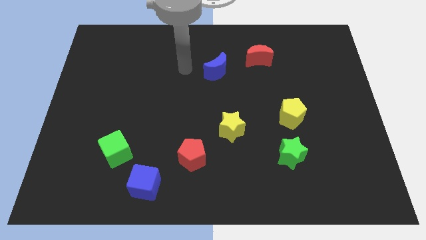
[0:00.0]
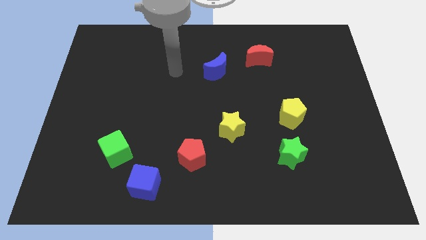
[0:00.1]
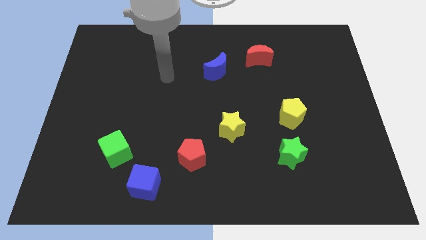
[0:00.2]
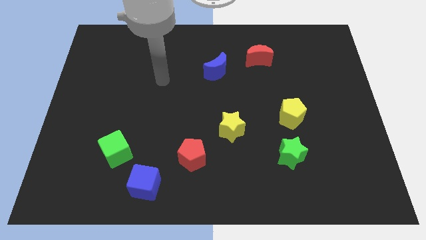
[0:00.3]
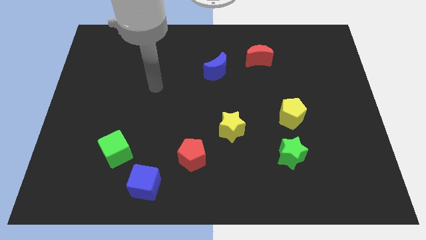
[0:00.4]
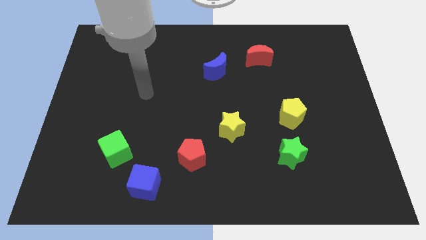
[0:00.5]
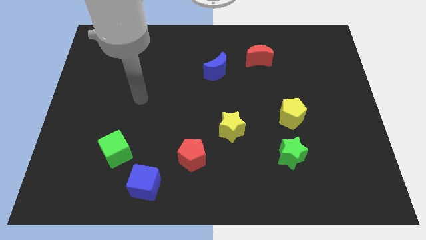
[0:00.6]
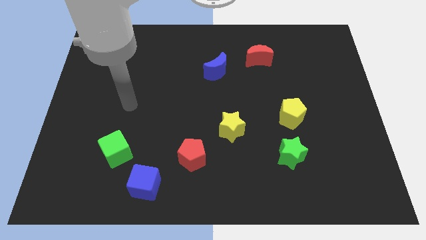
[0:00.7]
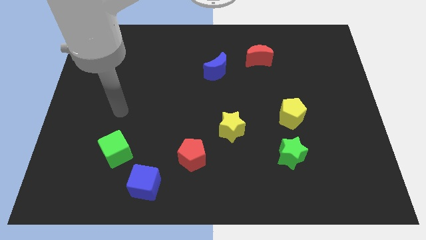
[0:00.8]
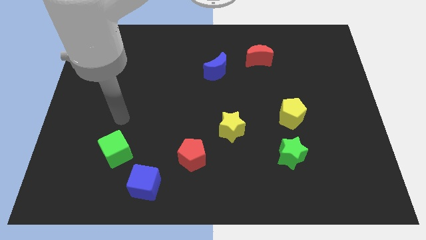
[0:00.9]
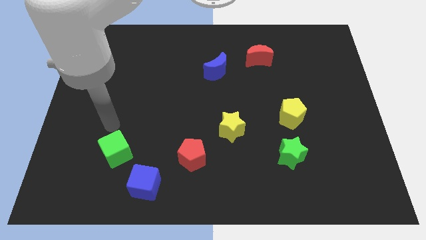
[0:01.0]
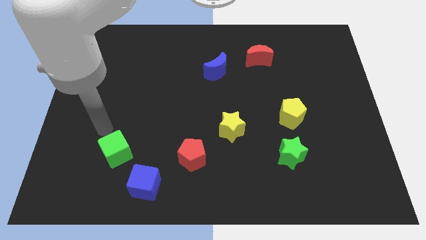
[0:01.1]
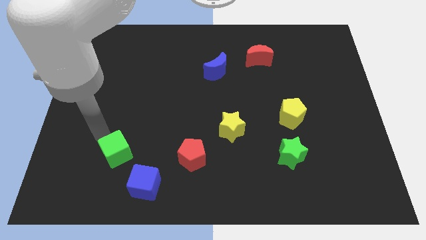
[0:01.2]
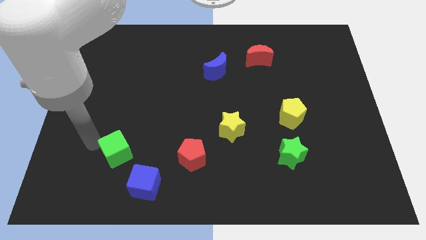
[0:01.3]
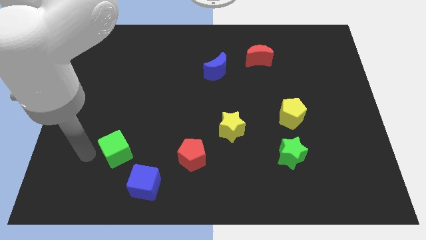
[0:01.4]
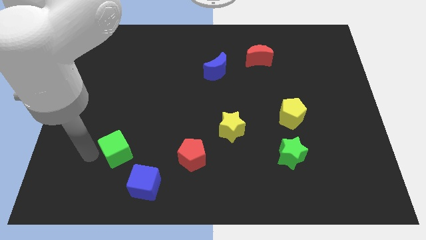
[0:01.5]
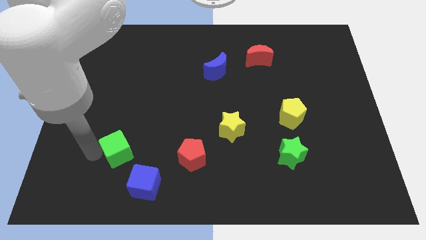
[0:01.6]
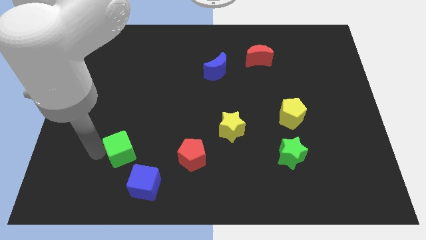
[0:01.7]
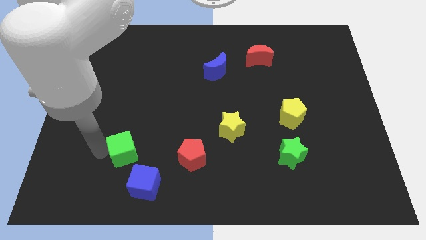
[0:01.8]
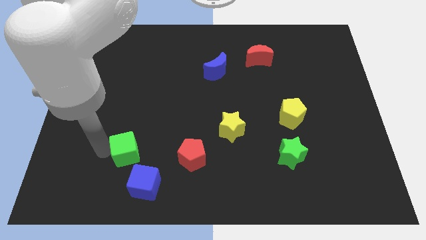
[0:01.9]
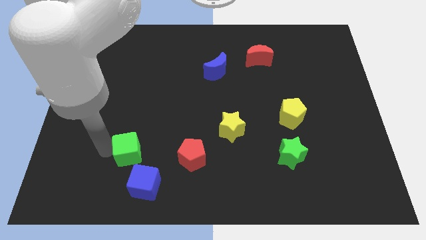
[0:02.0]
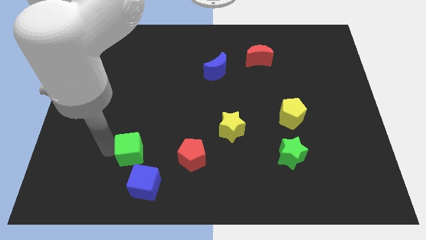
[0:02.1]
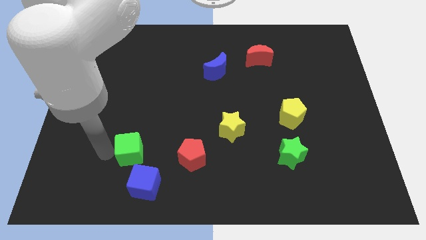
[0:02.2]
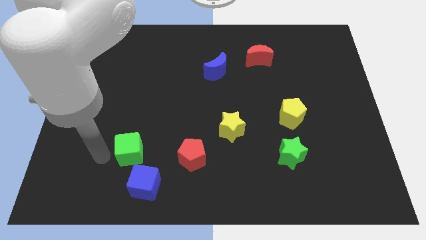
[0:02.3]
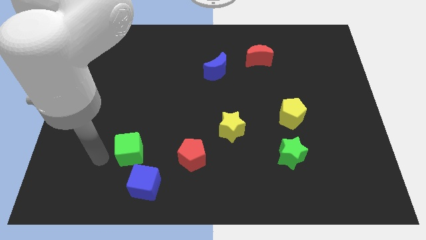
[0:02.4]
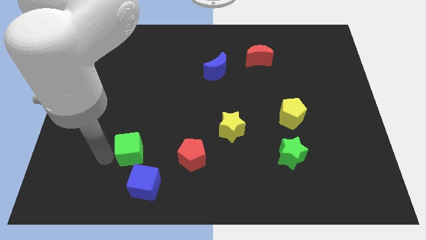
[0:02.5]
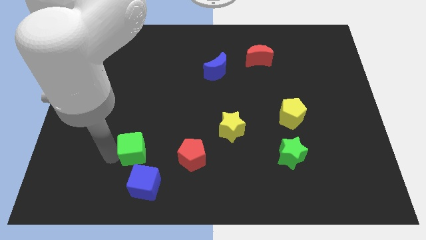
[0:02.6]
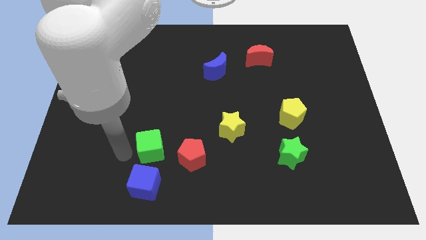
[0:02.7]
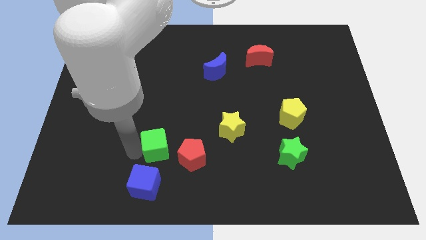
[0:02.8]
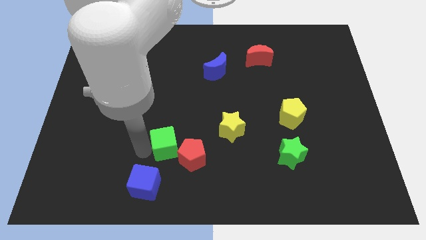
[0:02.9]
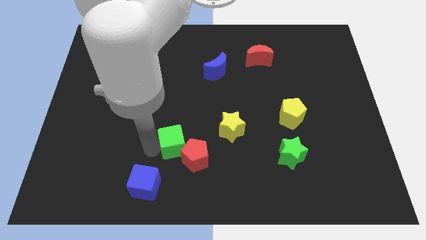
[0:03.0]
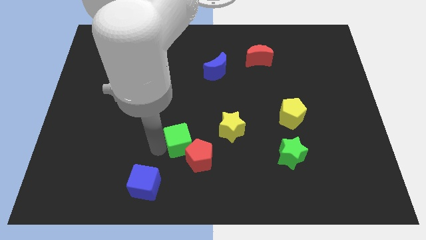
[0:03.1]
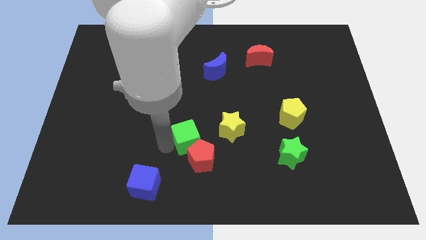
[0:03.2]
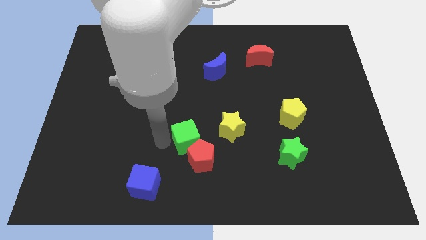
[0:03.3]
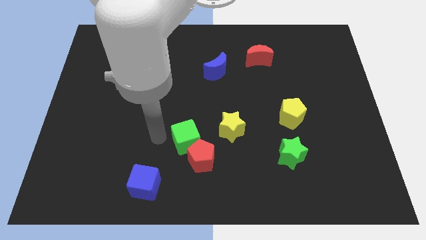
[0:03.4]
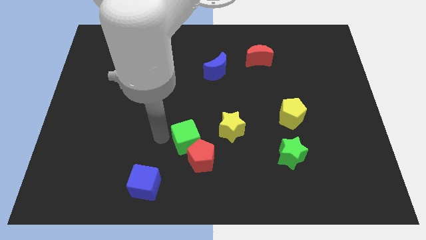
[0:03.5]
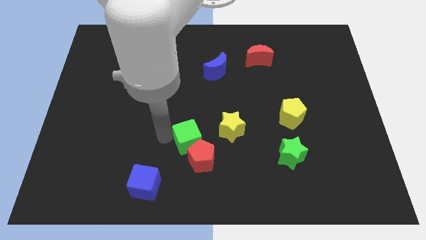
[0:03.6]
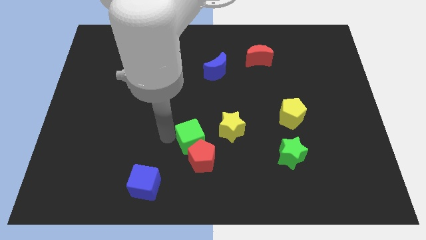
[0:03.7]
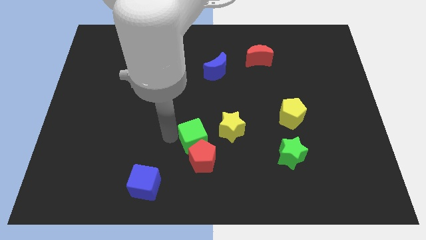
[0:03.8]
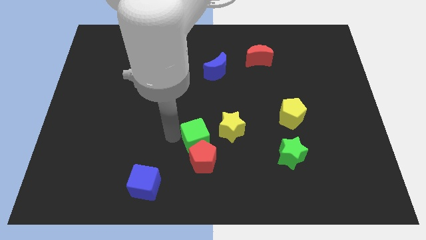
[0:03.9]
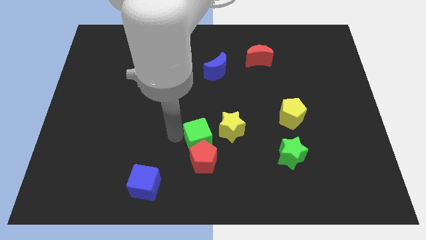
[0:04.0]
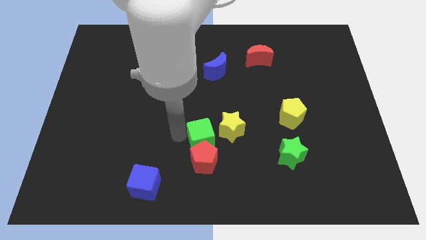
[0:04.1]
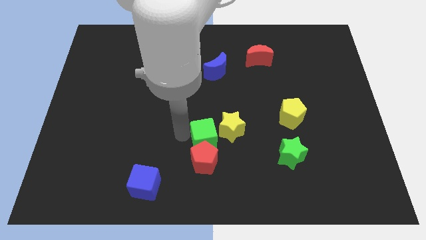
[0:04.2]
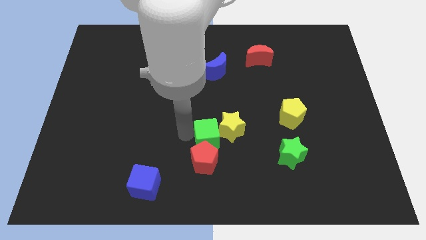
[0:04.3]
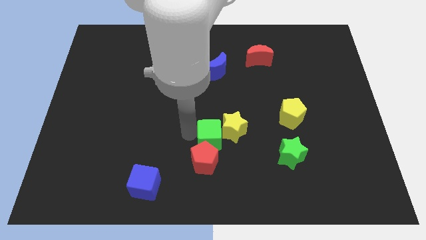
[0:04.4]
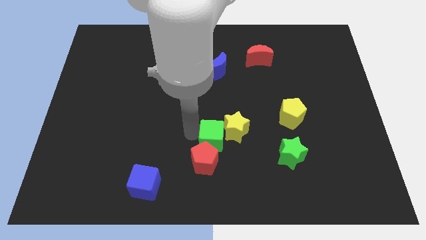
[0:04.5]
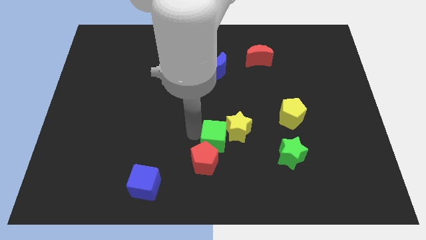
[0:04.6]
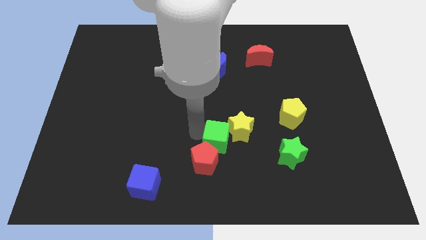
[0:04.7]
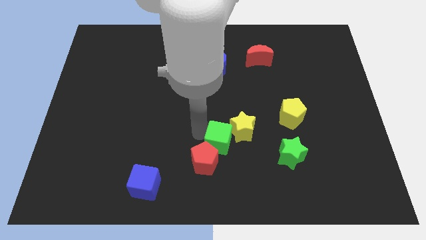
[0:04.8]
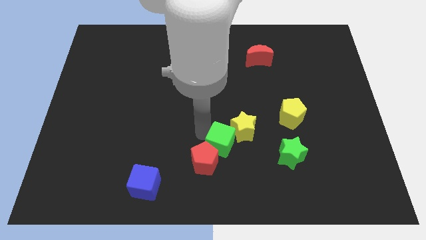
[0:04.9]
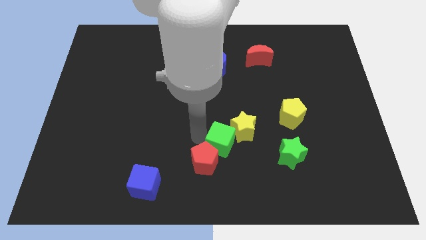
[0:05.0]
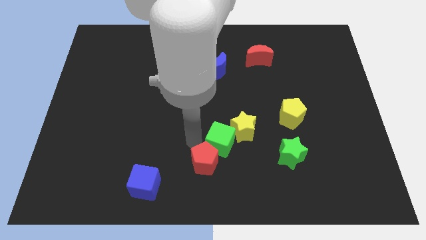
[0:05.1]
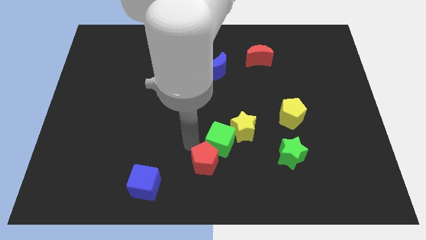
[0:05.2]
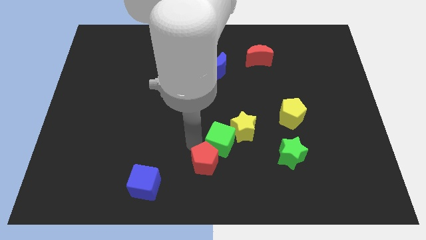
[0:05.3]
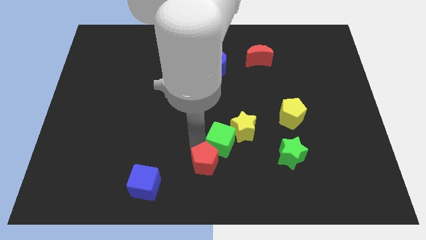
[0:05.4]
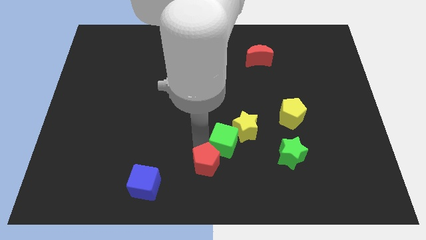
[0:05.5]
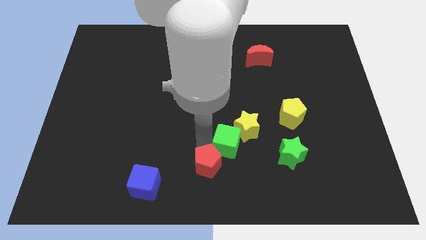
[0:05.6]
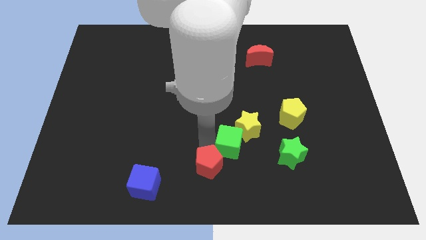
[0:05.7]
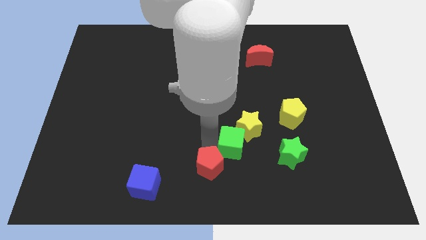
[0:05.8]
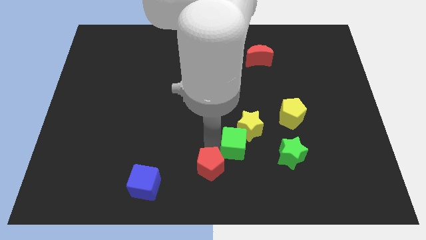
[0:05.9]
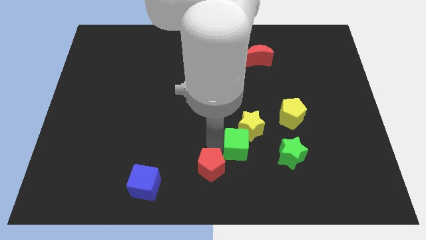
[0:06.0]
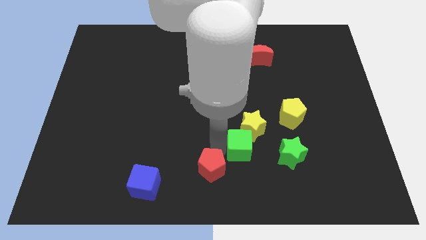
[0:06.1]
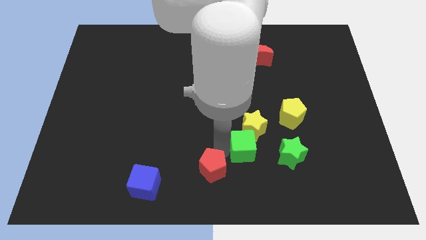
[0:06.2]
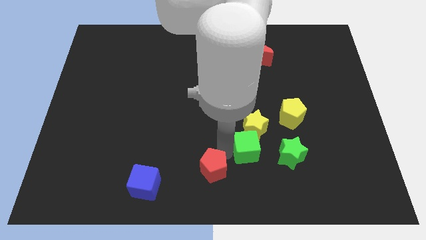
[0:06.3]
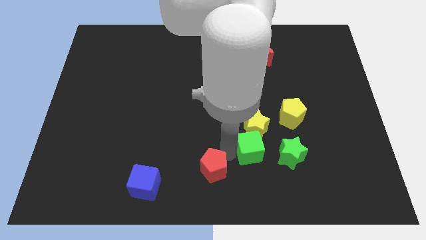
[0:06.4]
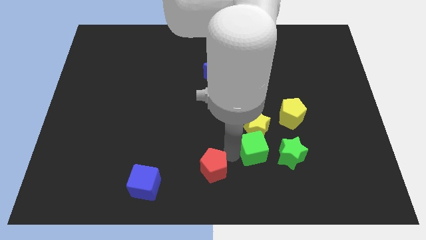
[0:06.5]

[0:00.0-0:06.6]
move the green cube to the top left side of the green star
